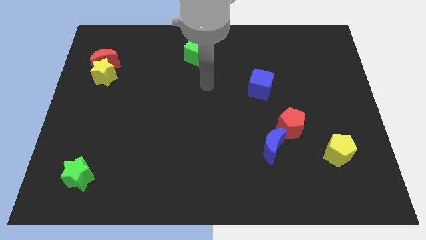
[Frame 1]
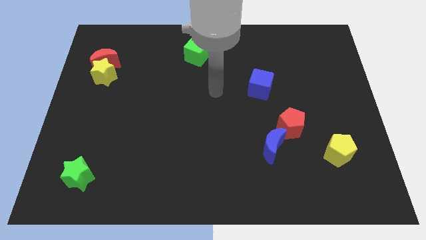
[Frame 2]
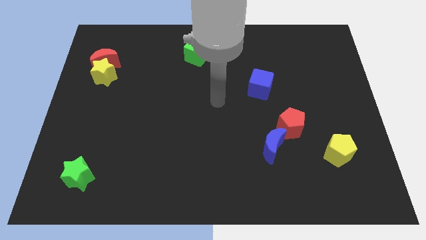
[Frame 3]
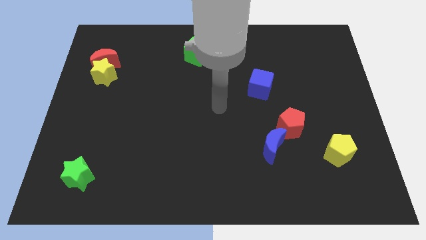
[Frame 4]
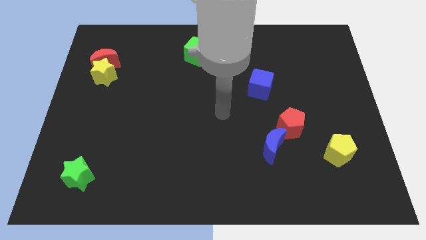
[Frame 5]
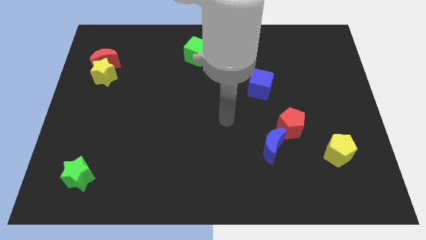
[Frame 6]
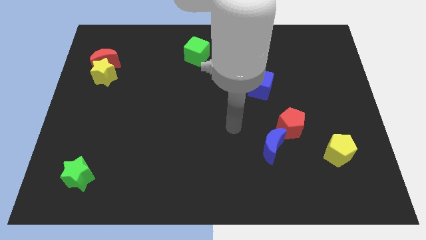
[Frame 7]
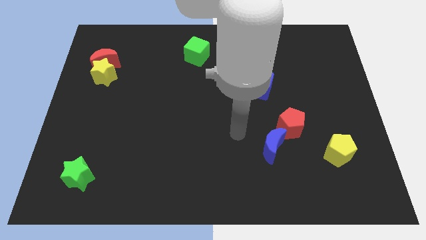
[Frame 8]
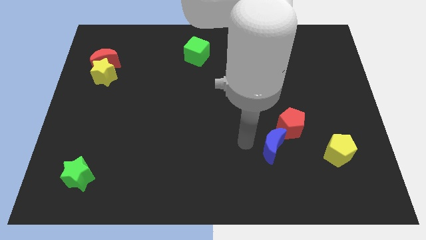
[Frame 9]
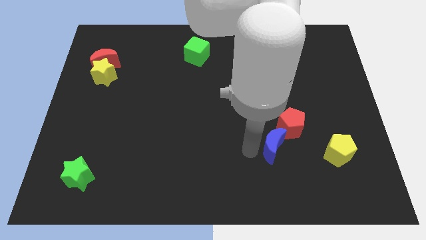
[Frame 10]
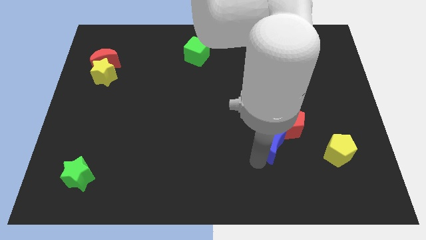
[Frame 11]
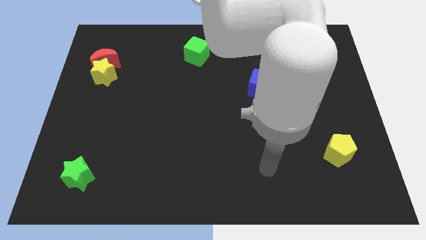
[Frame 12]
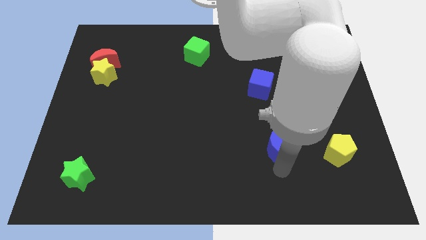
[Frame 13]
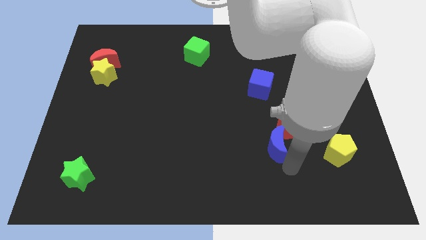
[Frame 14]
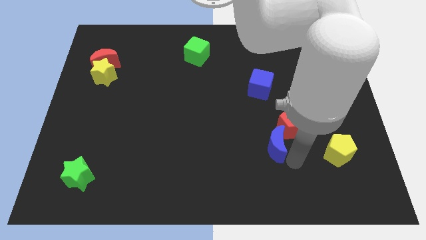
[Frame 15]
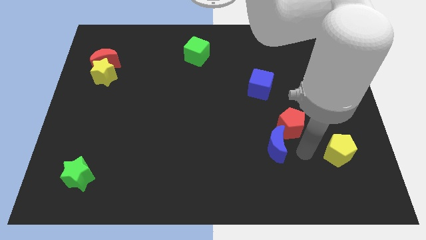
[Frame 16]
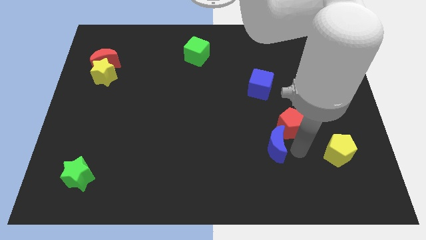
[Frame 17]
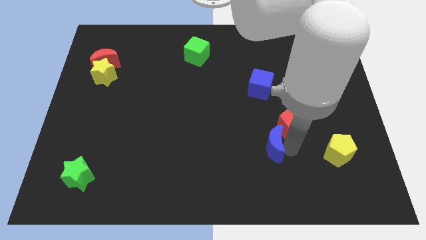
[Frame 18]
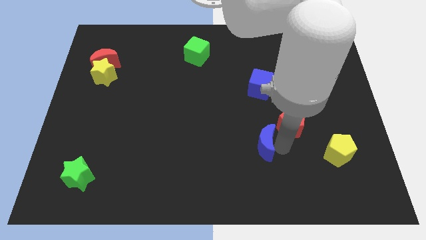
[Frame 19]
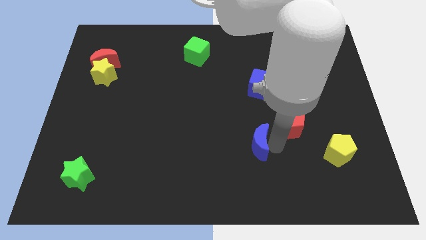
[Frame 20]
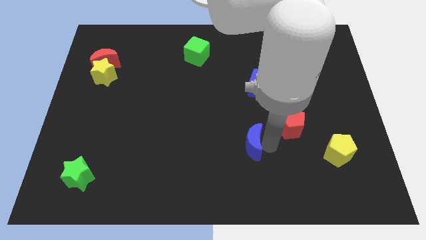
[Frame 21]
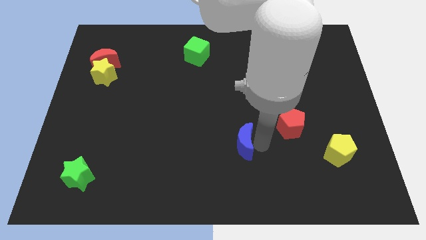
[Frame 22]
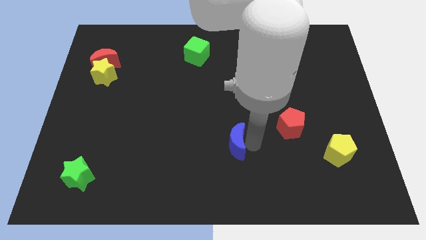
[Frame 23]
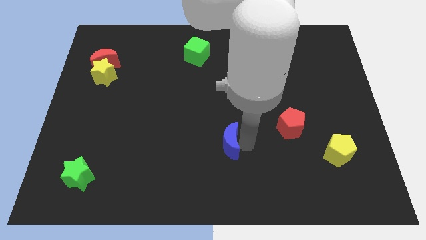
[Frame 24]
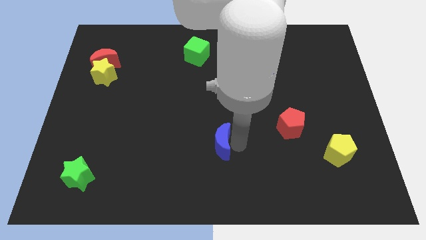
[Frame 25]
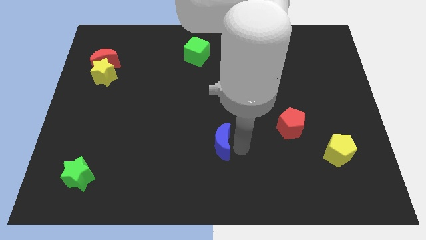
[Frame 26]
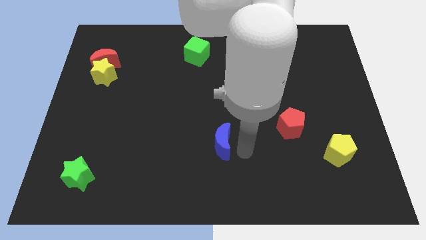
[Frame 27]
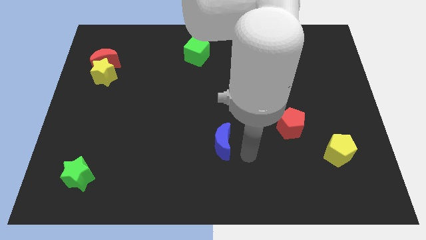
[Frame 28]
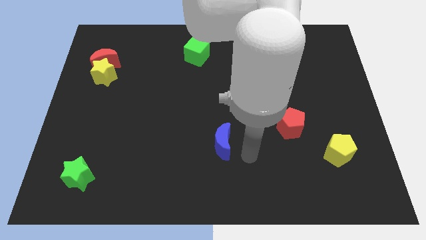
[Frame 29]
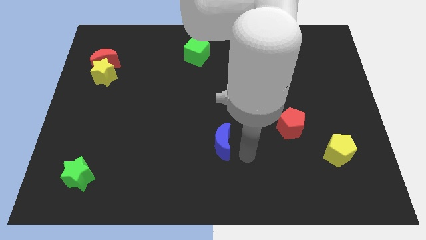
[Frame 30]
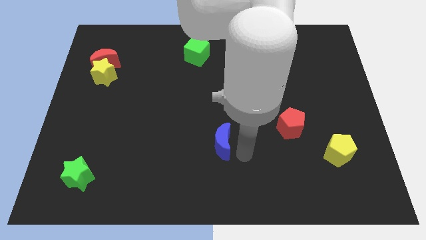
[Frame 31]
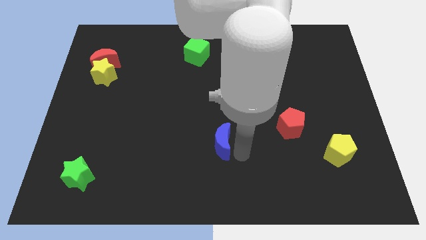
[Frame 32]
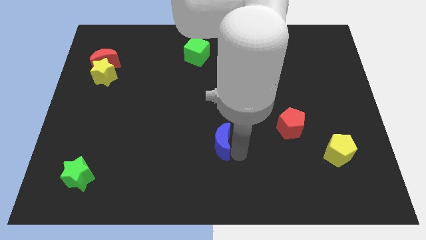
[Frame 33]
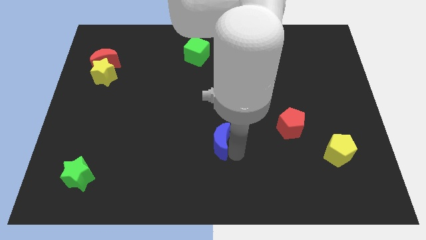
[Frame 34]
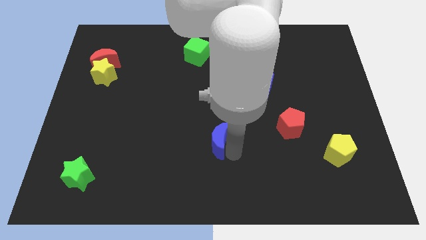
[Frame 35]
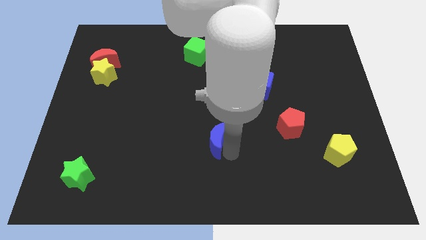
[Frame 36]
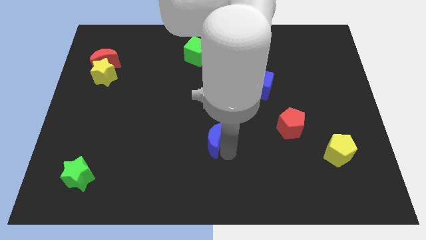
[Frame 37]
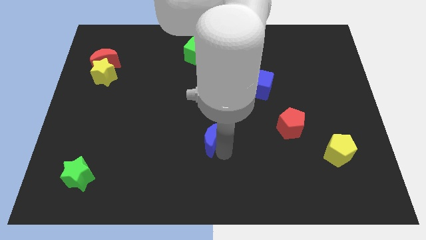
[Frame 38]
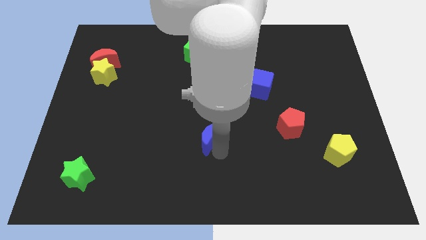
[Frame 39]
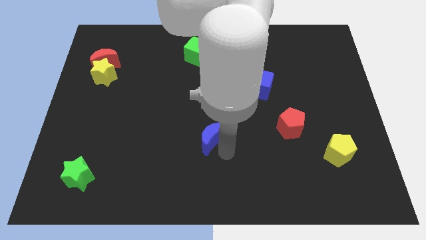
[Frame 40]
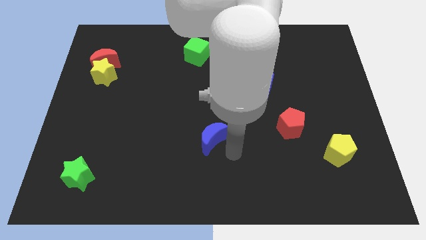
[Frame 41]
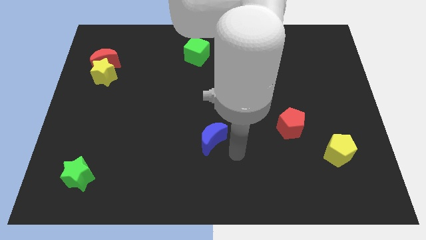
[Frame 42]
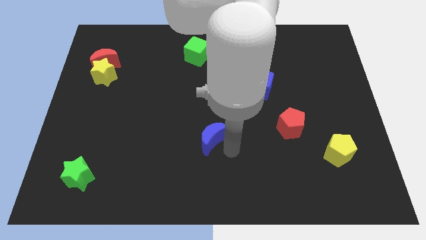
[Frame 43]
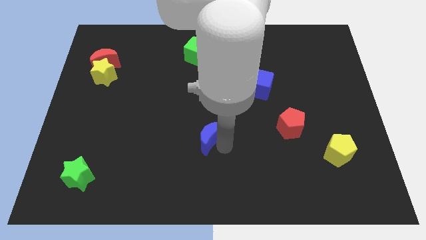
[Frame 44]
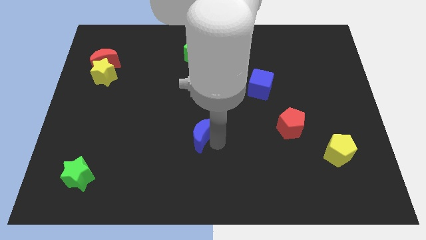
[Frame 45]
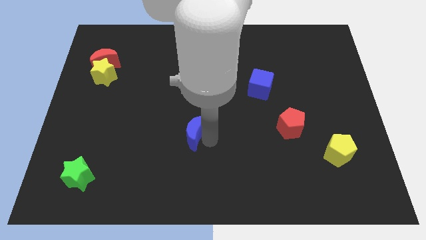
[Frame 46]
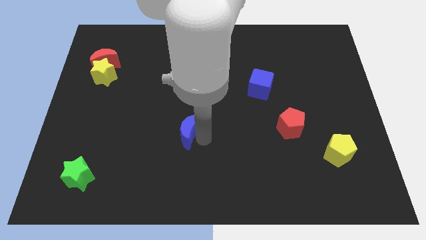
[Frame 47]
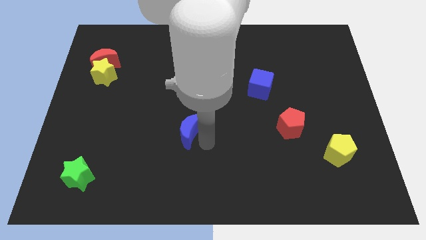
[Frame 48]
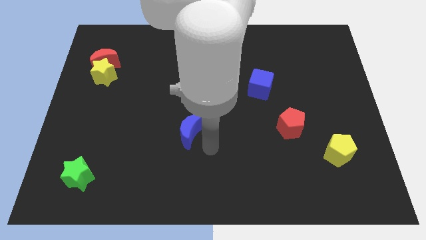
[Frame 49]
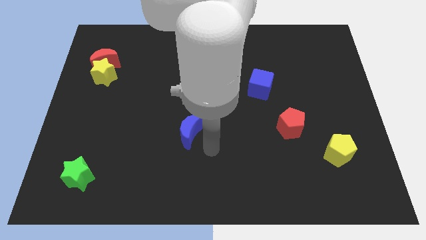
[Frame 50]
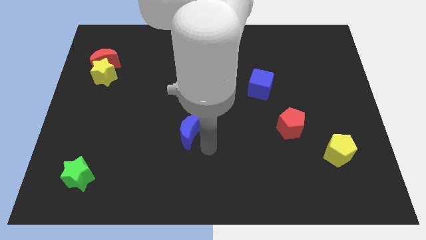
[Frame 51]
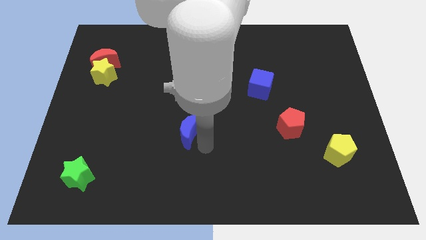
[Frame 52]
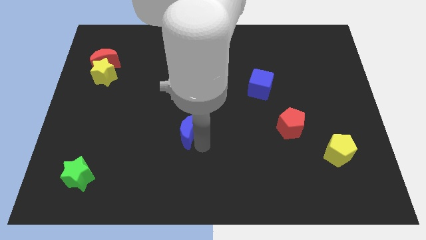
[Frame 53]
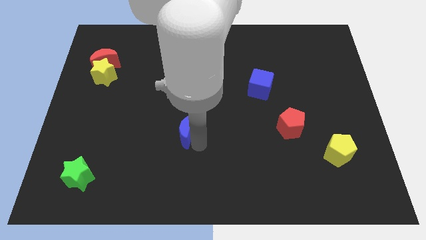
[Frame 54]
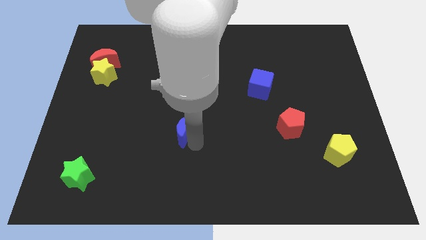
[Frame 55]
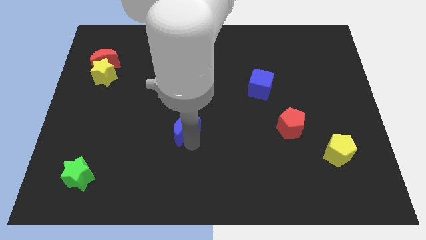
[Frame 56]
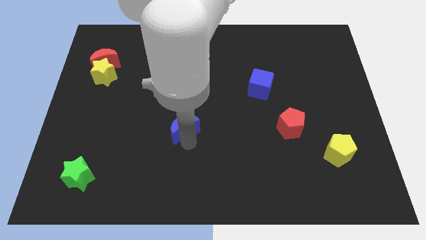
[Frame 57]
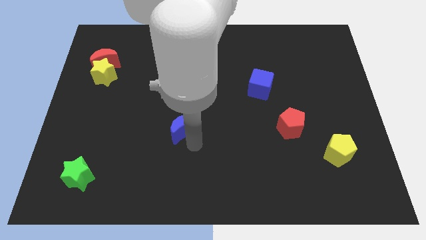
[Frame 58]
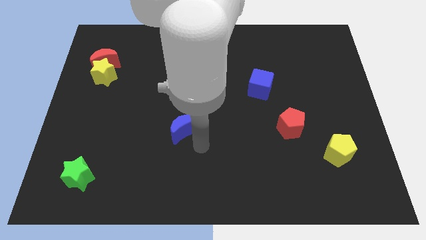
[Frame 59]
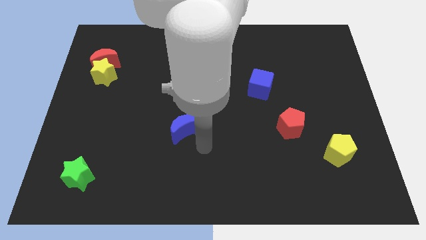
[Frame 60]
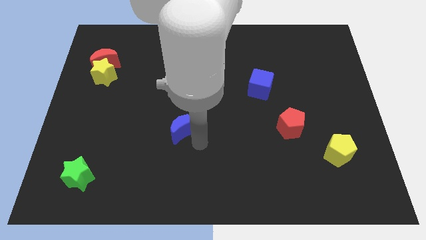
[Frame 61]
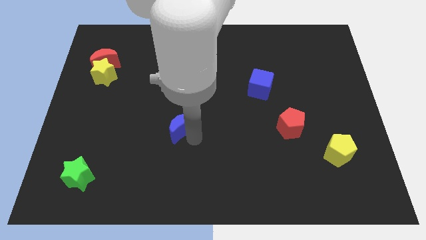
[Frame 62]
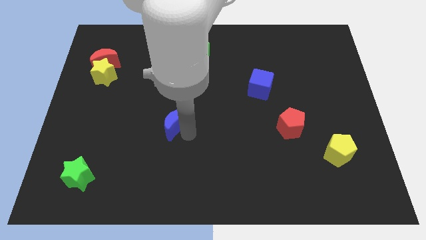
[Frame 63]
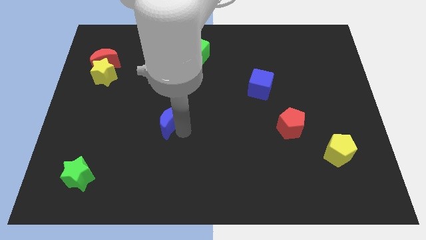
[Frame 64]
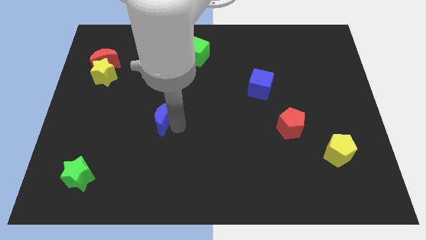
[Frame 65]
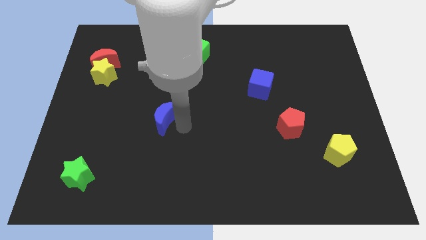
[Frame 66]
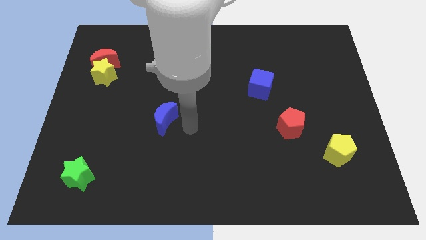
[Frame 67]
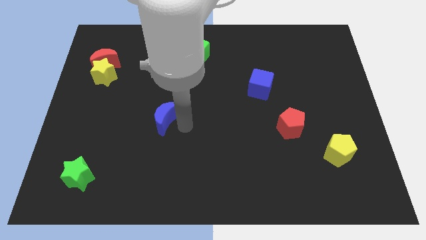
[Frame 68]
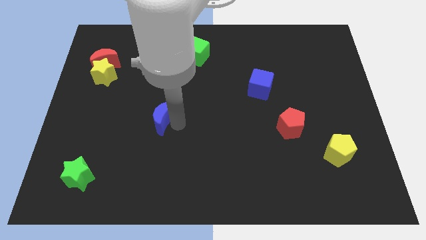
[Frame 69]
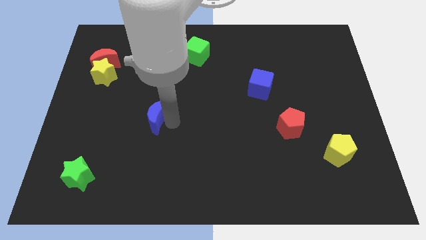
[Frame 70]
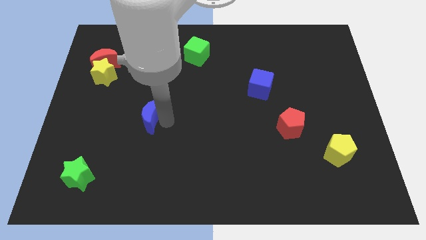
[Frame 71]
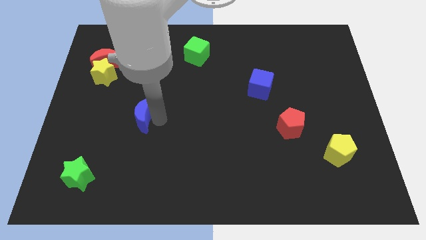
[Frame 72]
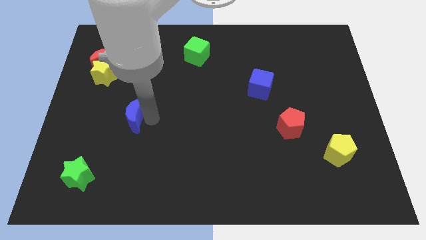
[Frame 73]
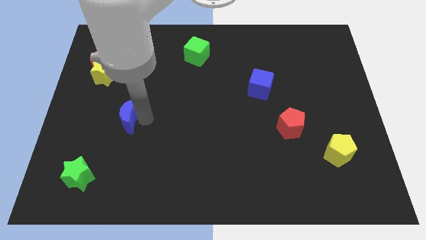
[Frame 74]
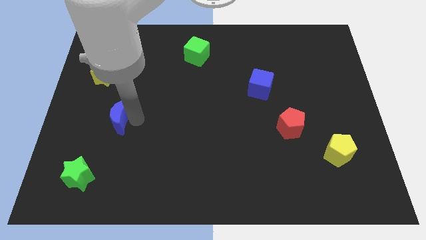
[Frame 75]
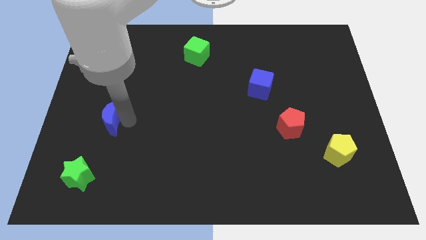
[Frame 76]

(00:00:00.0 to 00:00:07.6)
push the blue moon below the yellow star
